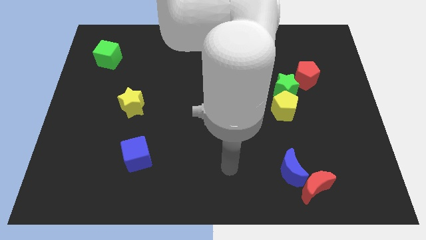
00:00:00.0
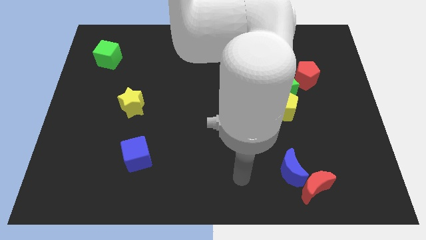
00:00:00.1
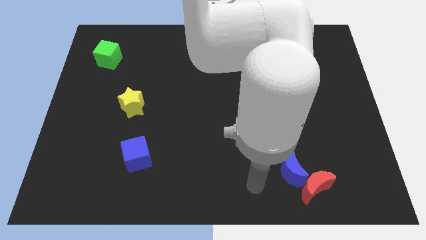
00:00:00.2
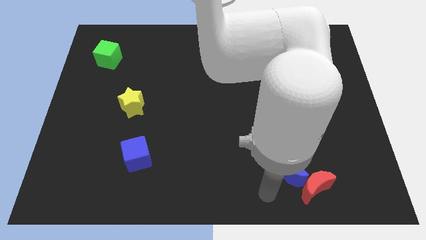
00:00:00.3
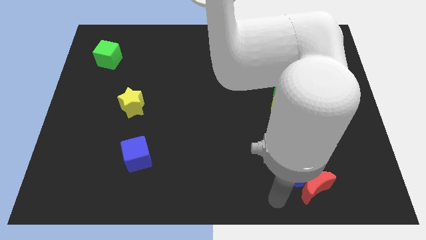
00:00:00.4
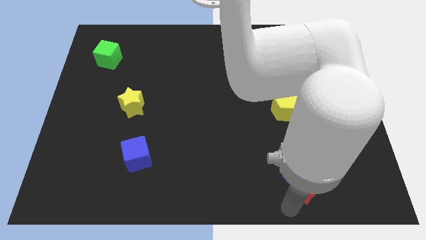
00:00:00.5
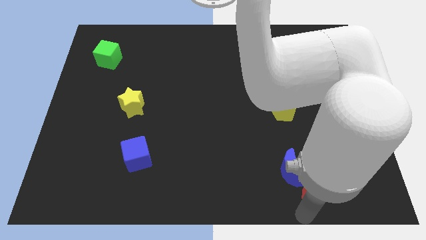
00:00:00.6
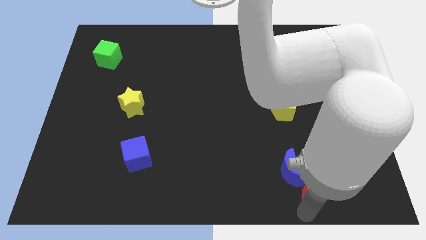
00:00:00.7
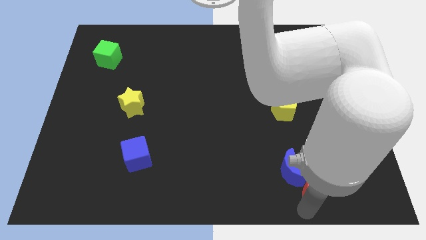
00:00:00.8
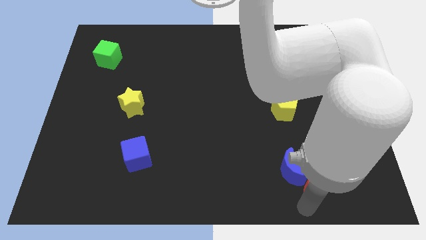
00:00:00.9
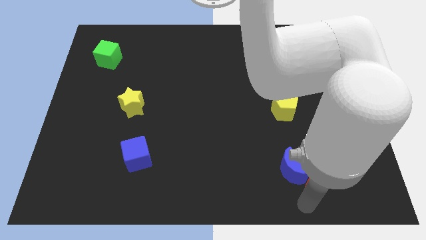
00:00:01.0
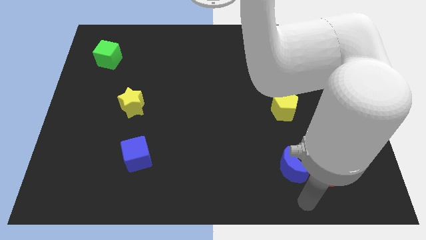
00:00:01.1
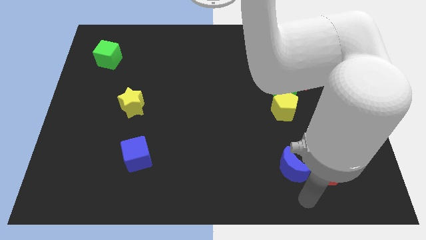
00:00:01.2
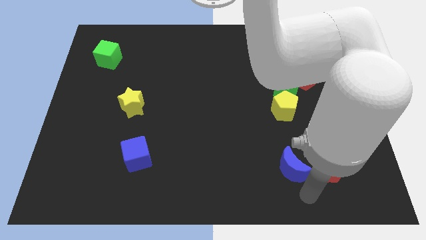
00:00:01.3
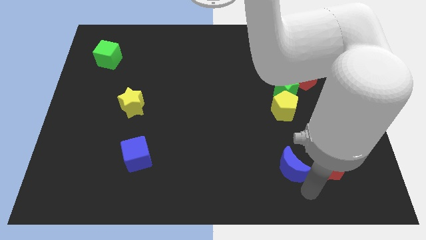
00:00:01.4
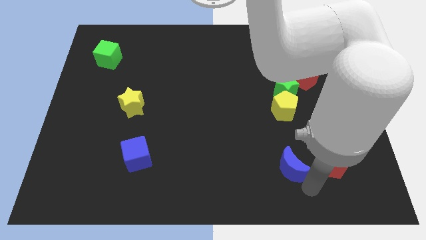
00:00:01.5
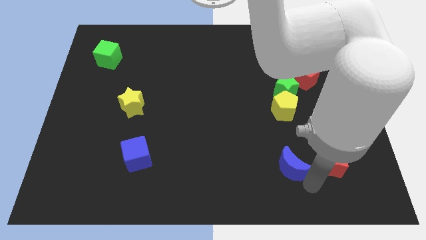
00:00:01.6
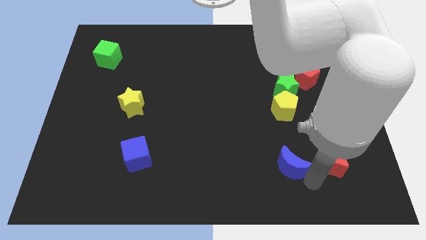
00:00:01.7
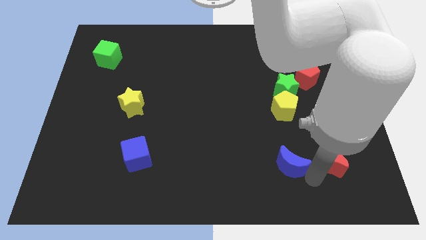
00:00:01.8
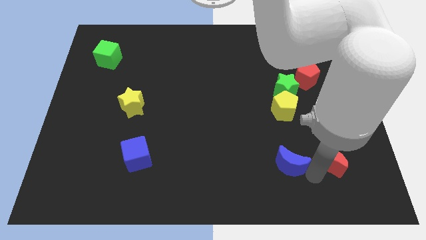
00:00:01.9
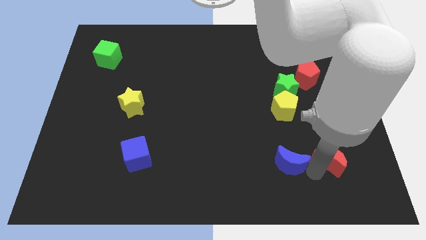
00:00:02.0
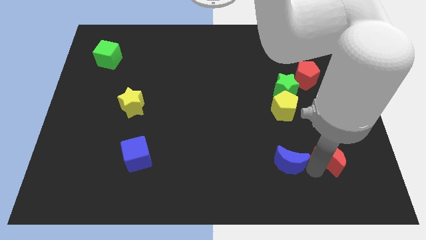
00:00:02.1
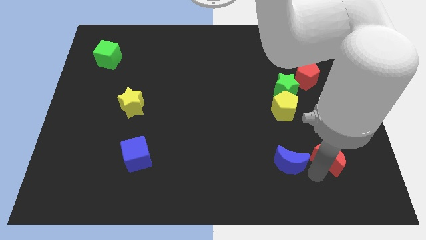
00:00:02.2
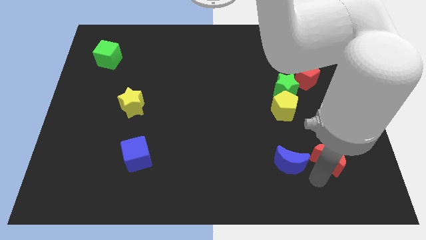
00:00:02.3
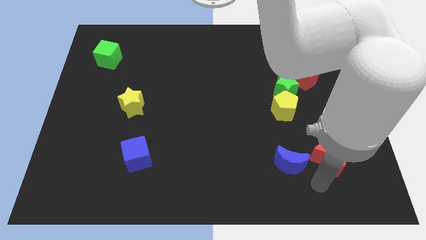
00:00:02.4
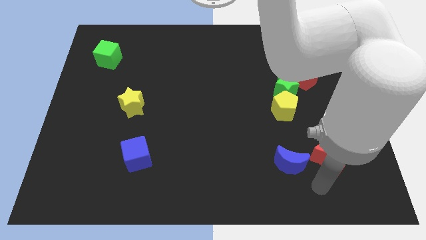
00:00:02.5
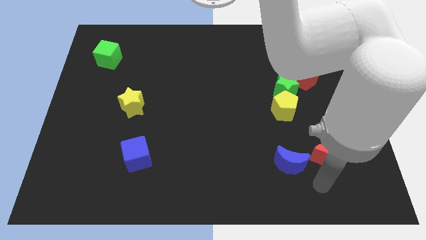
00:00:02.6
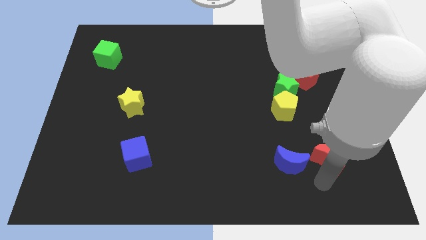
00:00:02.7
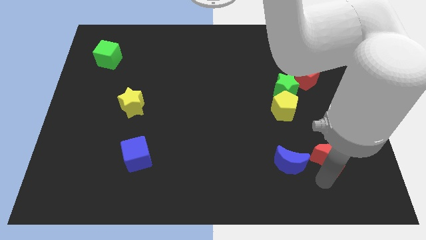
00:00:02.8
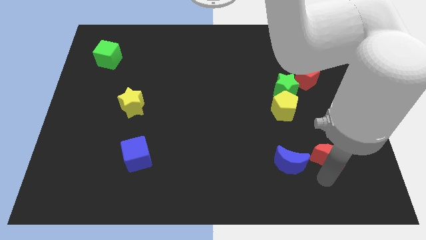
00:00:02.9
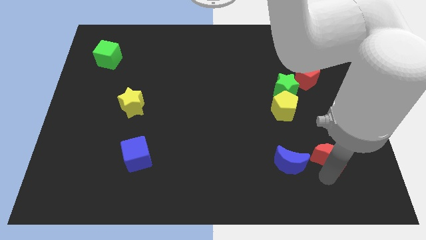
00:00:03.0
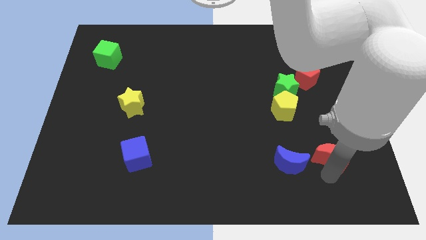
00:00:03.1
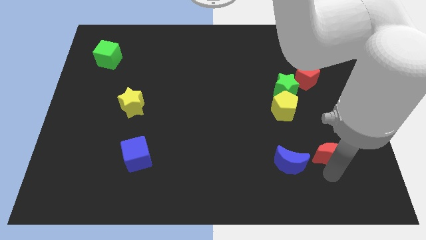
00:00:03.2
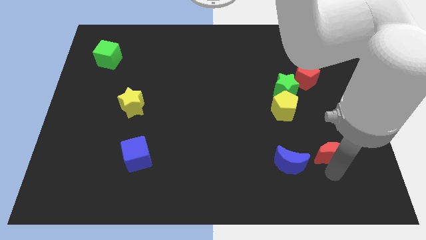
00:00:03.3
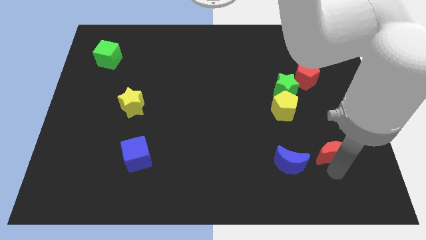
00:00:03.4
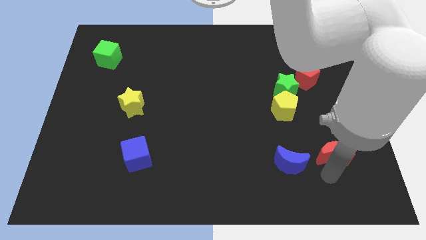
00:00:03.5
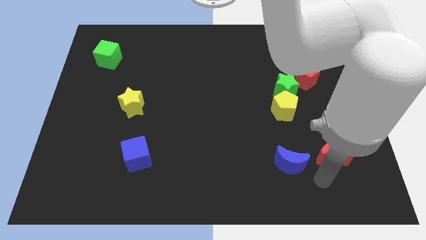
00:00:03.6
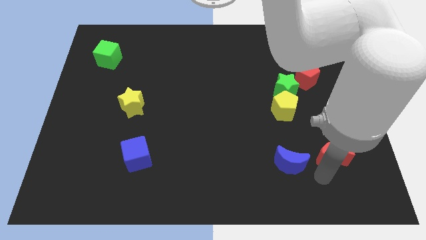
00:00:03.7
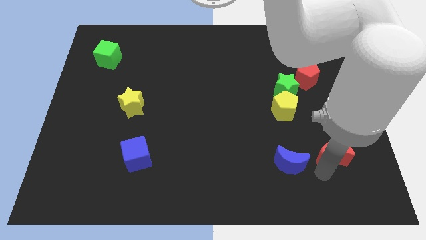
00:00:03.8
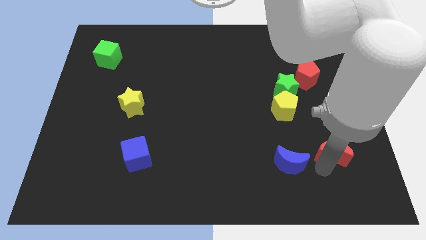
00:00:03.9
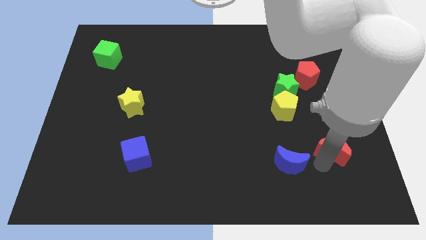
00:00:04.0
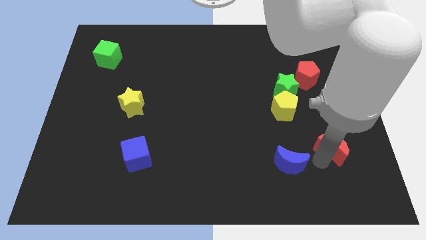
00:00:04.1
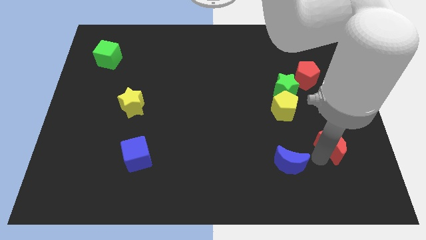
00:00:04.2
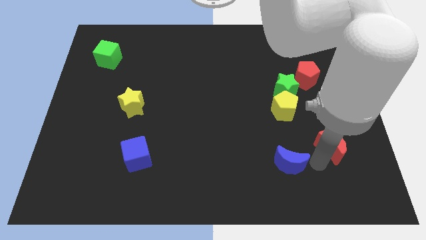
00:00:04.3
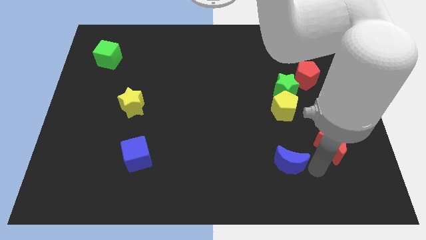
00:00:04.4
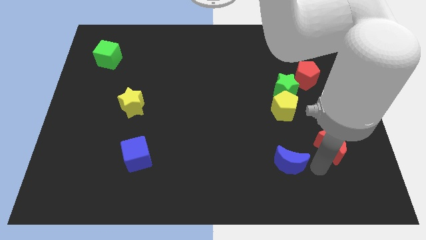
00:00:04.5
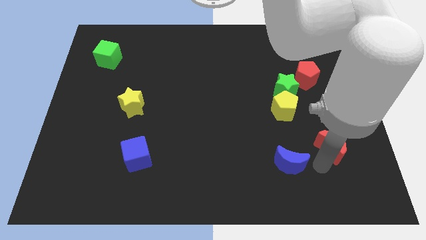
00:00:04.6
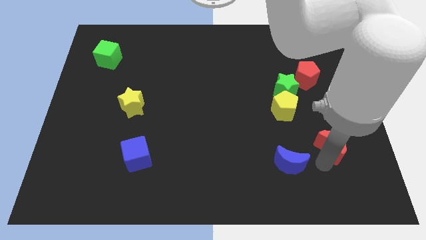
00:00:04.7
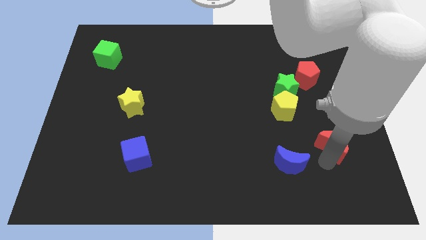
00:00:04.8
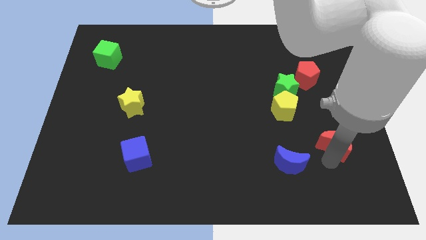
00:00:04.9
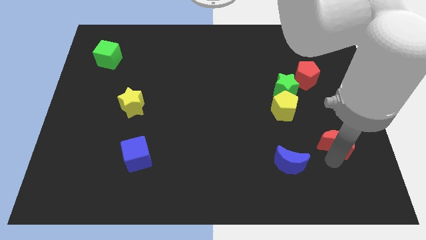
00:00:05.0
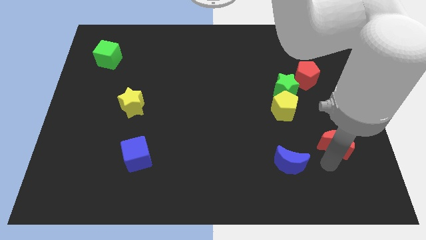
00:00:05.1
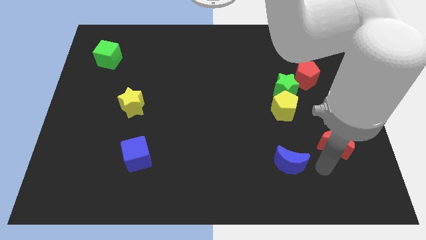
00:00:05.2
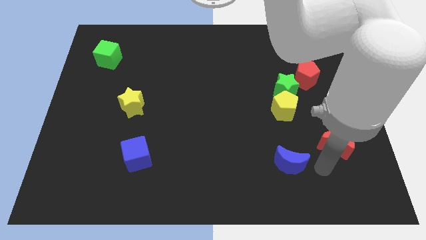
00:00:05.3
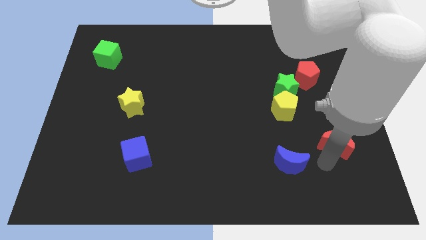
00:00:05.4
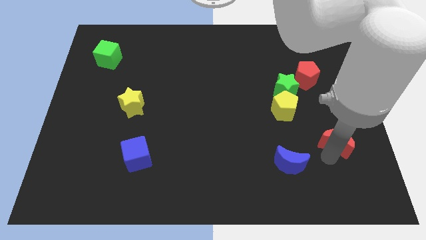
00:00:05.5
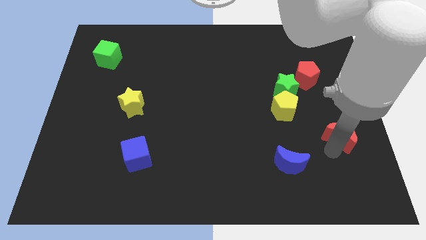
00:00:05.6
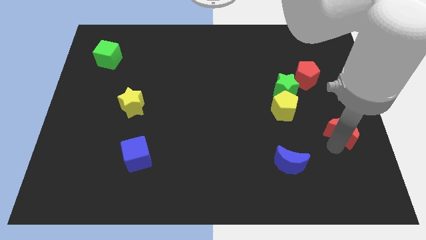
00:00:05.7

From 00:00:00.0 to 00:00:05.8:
put the red moon to the right side

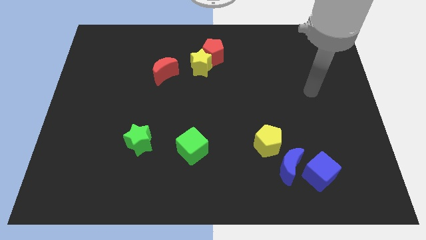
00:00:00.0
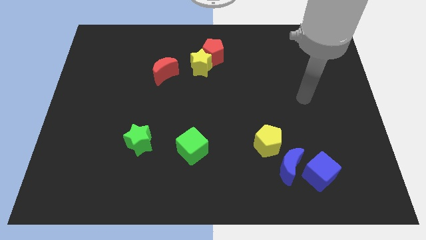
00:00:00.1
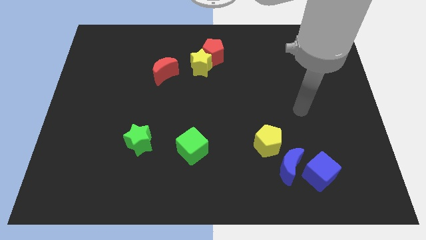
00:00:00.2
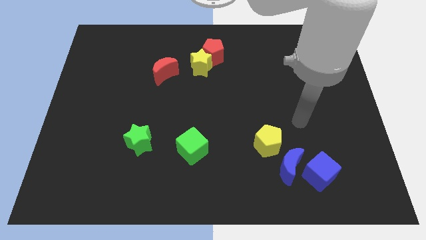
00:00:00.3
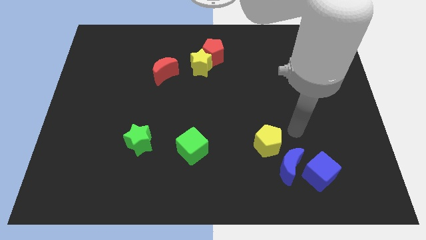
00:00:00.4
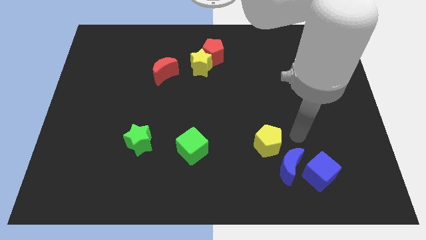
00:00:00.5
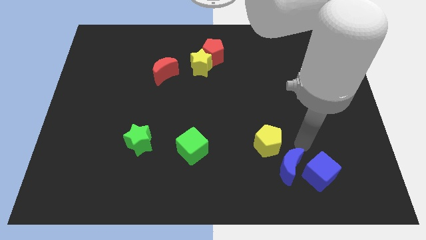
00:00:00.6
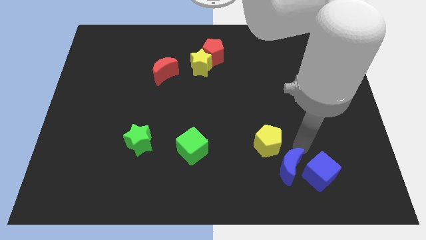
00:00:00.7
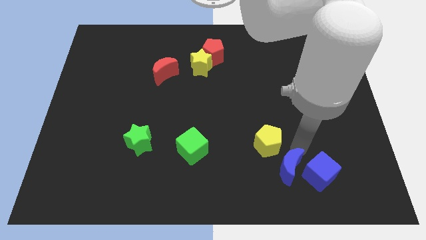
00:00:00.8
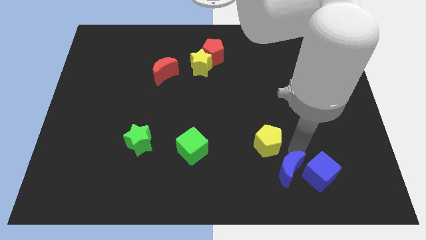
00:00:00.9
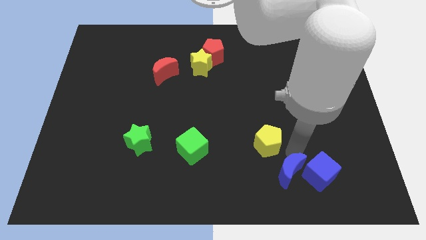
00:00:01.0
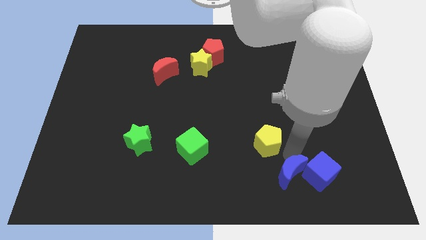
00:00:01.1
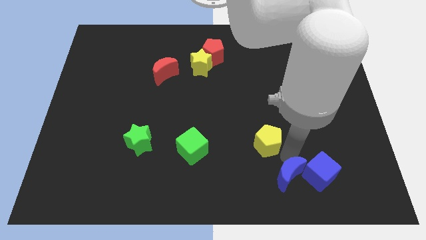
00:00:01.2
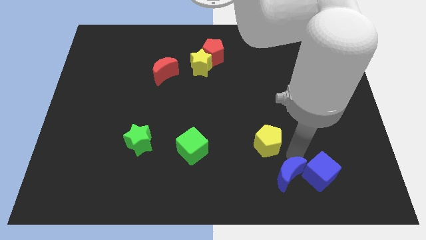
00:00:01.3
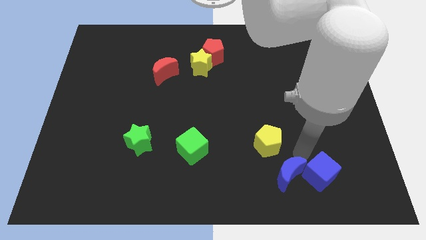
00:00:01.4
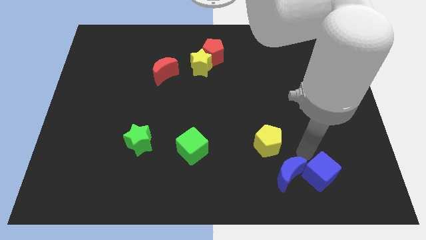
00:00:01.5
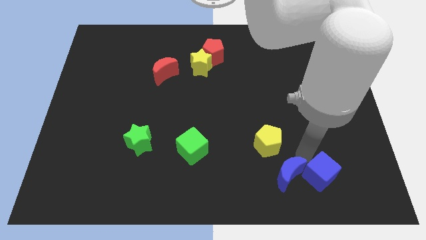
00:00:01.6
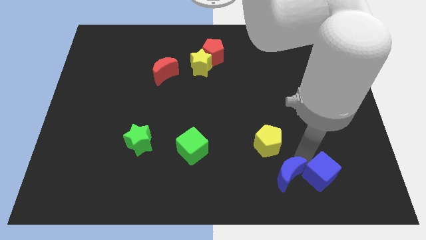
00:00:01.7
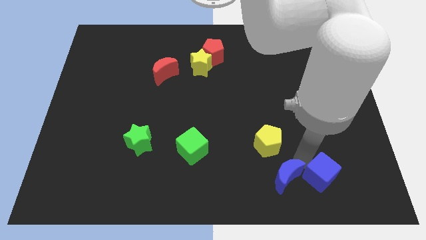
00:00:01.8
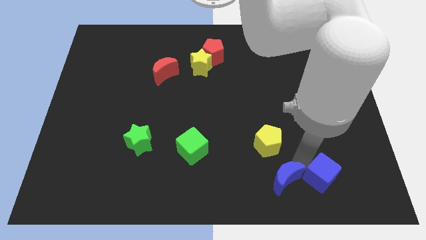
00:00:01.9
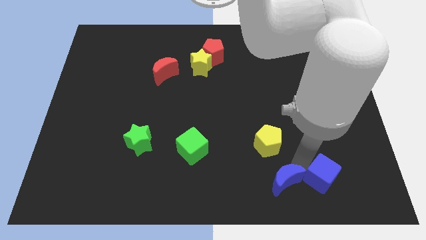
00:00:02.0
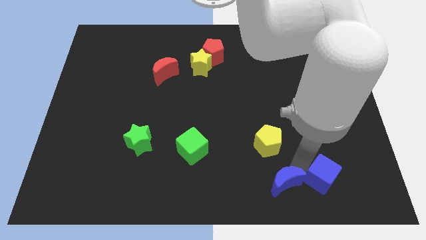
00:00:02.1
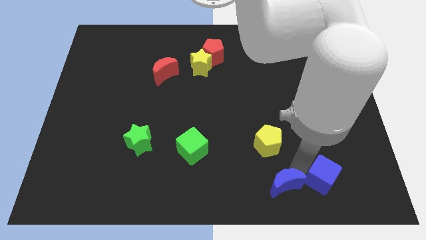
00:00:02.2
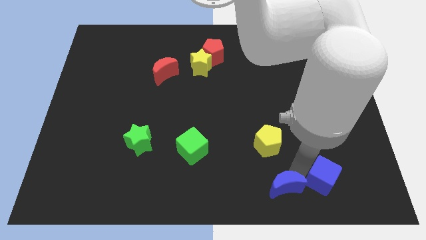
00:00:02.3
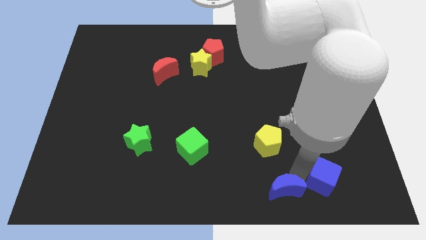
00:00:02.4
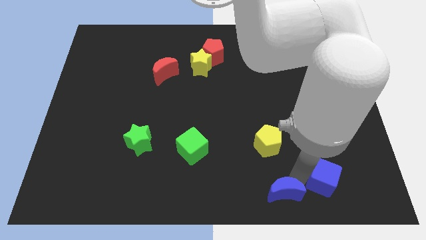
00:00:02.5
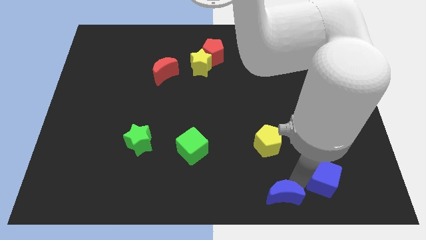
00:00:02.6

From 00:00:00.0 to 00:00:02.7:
move the blue moon to the bottom side
